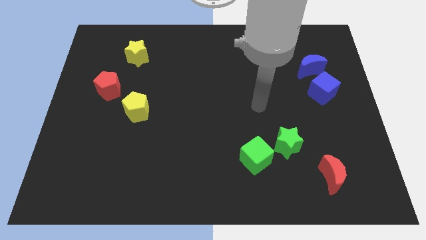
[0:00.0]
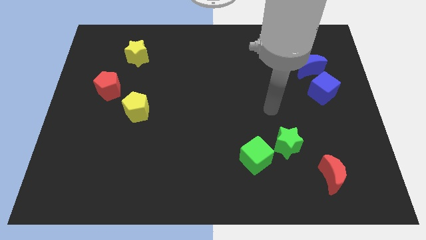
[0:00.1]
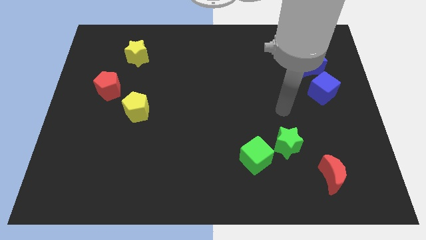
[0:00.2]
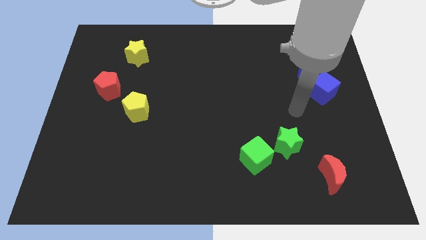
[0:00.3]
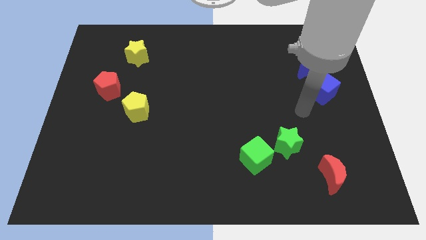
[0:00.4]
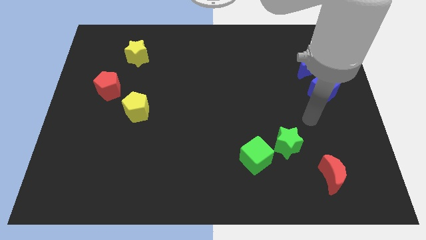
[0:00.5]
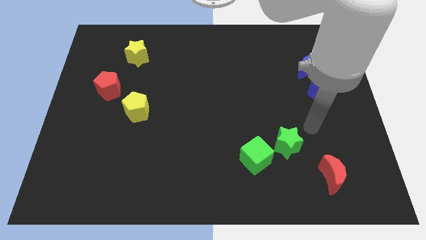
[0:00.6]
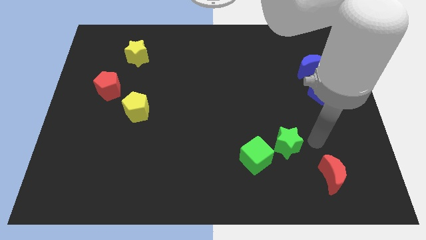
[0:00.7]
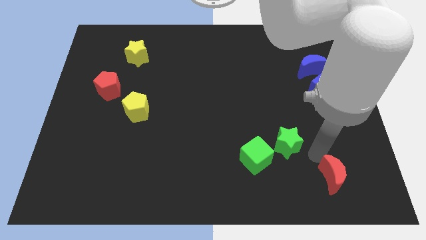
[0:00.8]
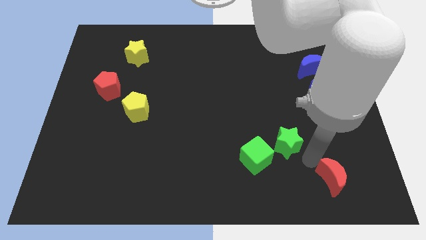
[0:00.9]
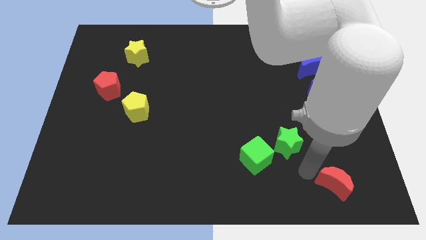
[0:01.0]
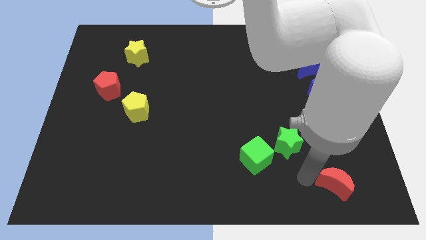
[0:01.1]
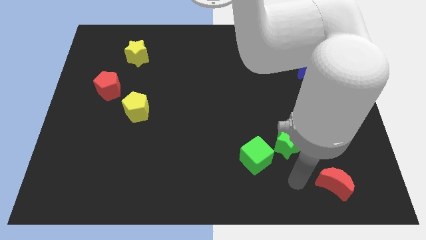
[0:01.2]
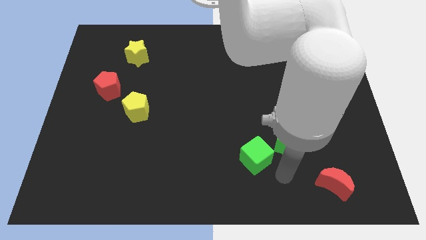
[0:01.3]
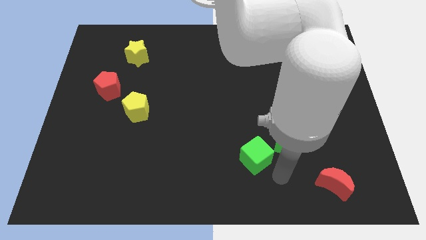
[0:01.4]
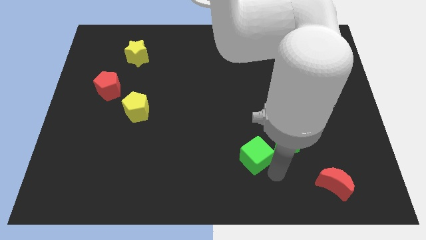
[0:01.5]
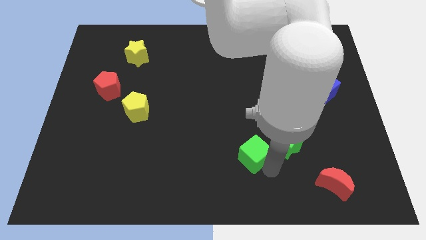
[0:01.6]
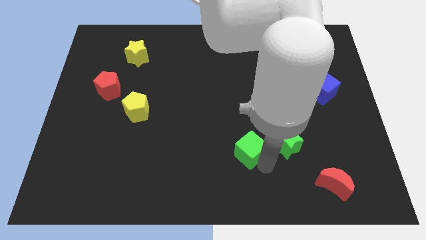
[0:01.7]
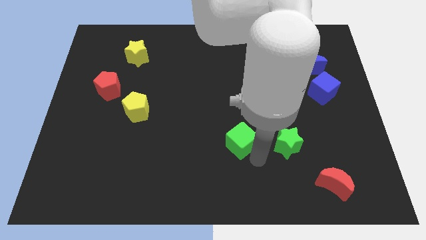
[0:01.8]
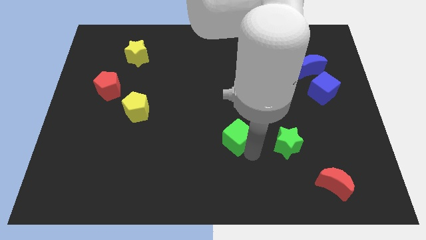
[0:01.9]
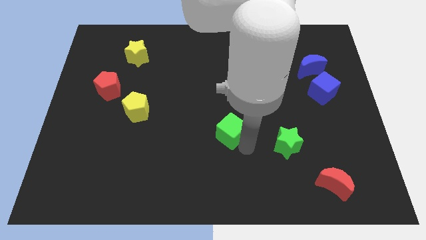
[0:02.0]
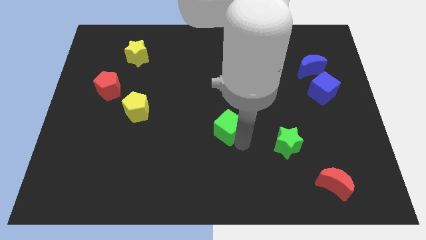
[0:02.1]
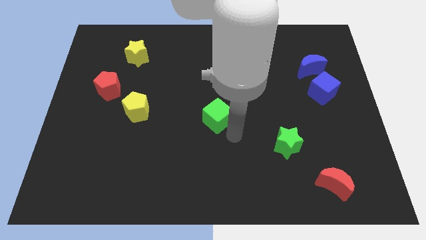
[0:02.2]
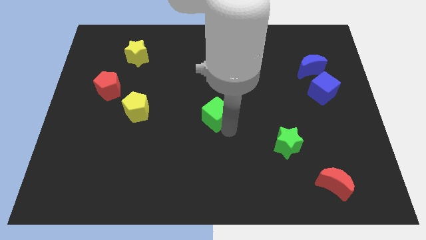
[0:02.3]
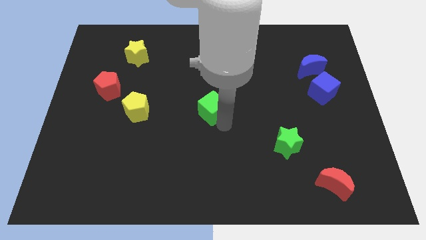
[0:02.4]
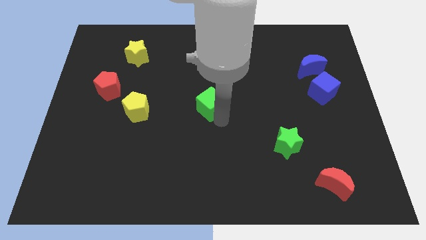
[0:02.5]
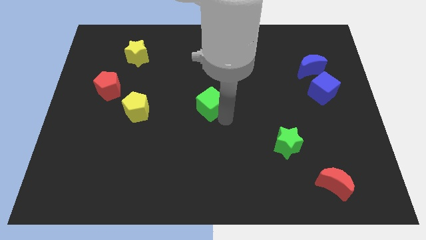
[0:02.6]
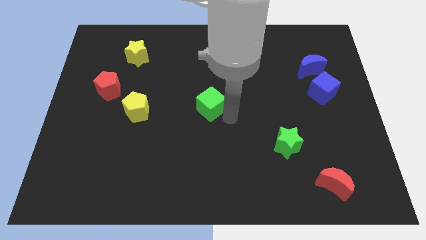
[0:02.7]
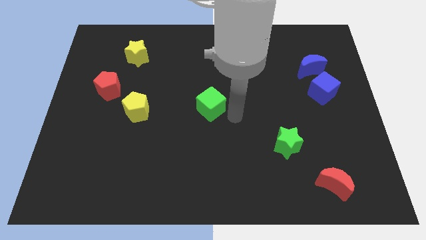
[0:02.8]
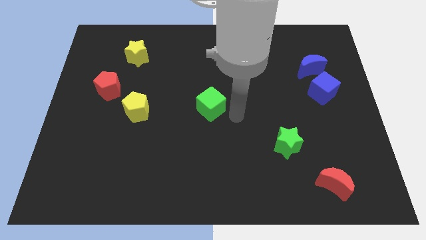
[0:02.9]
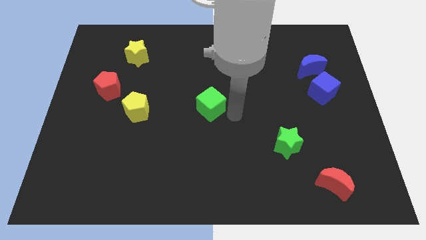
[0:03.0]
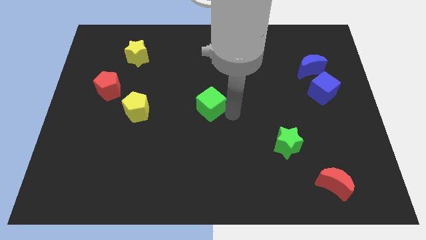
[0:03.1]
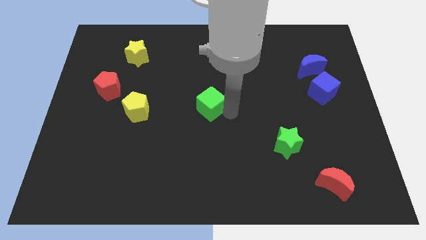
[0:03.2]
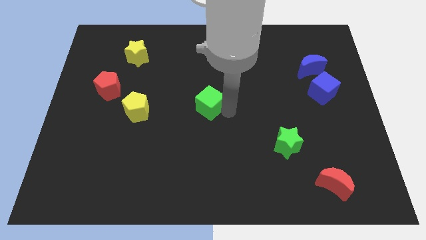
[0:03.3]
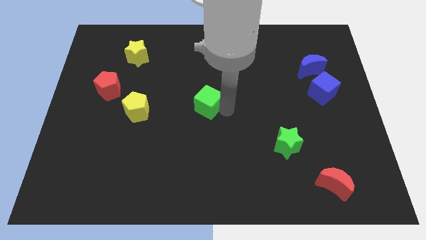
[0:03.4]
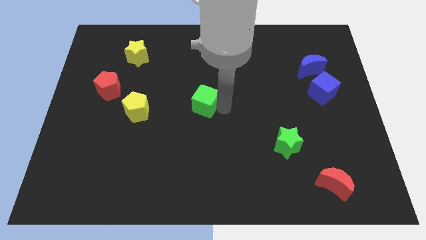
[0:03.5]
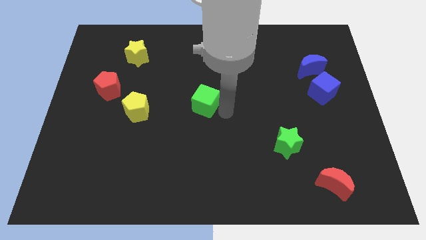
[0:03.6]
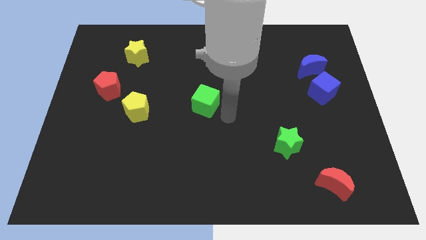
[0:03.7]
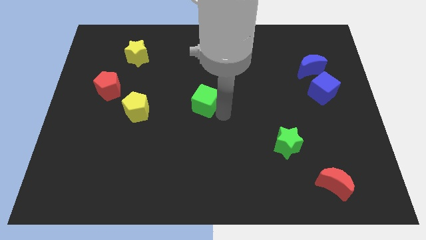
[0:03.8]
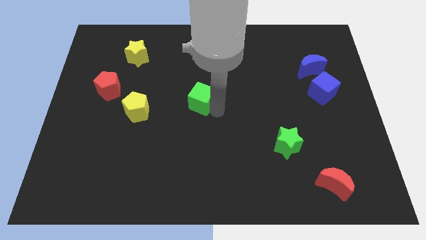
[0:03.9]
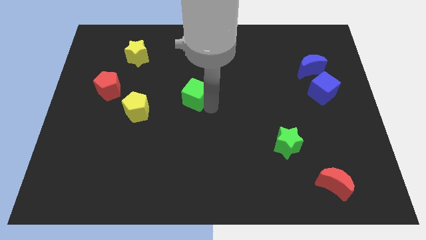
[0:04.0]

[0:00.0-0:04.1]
push the green cube upwards and to the left

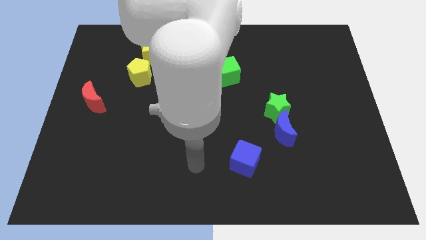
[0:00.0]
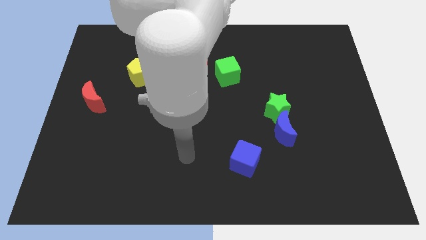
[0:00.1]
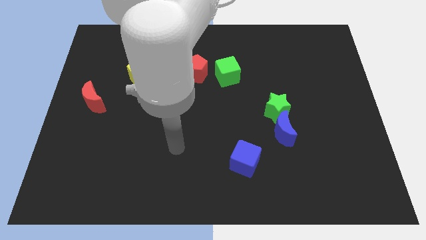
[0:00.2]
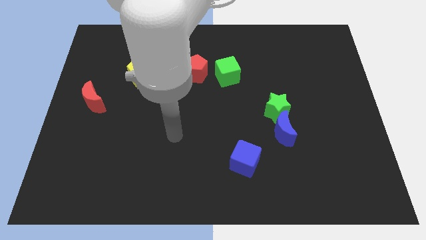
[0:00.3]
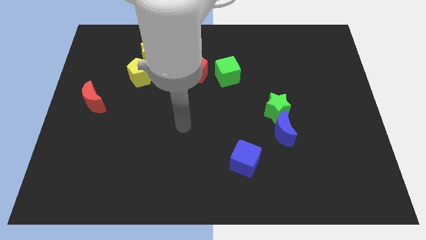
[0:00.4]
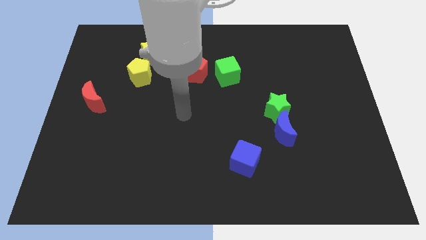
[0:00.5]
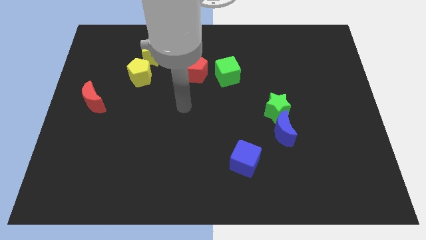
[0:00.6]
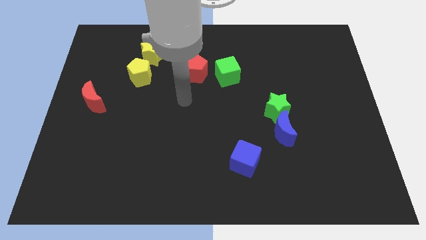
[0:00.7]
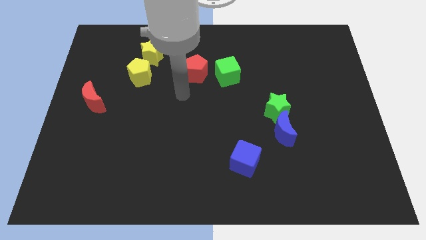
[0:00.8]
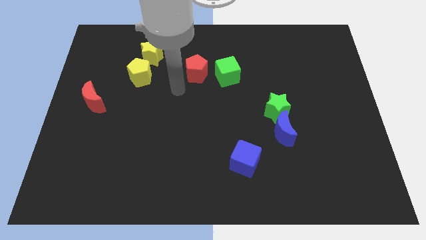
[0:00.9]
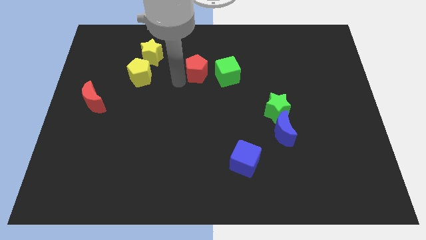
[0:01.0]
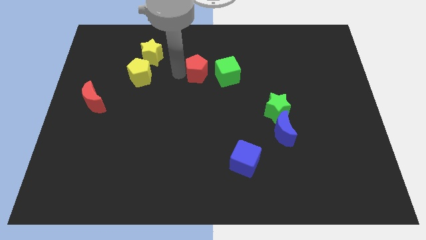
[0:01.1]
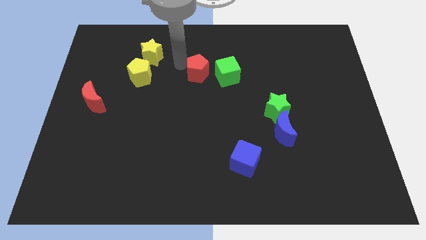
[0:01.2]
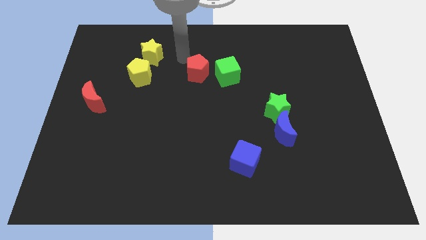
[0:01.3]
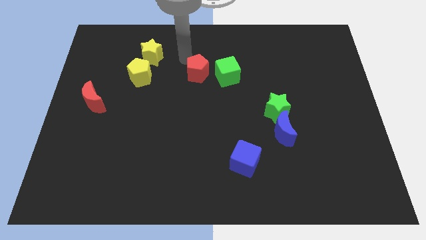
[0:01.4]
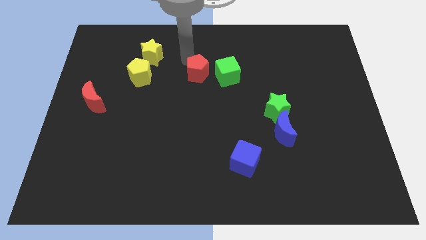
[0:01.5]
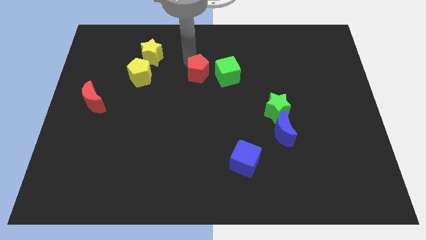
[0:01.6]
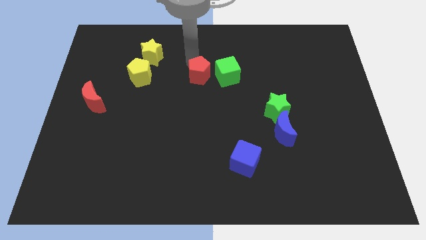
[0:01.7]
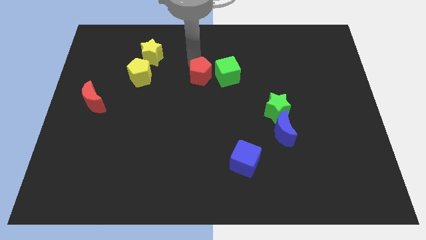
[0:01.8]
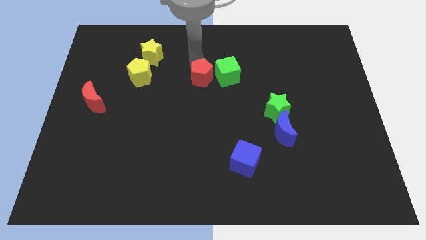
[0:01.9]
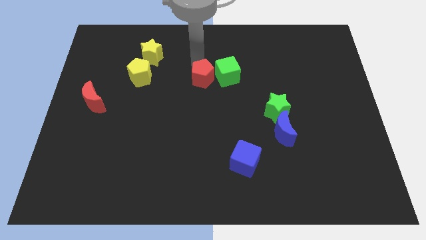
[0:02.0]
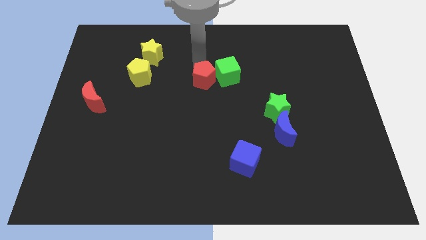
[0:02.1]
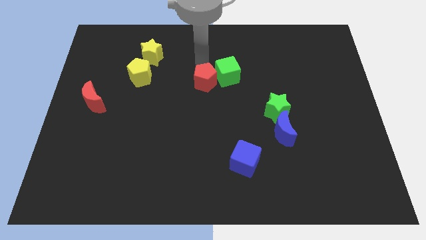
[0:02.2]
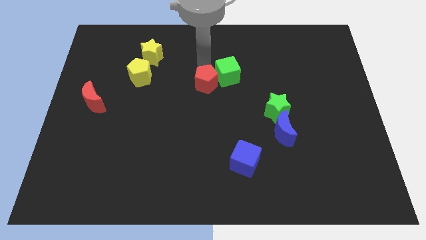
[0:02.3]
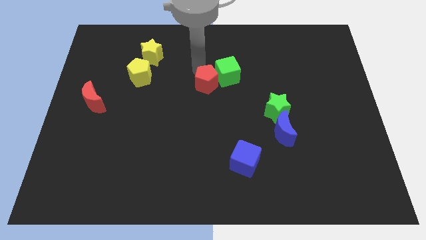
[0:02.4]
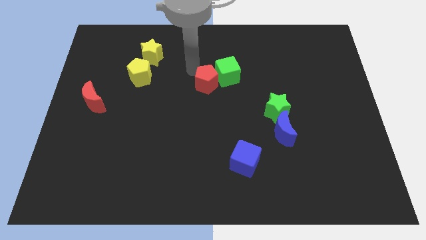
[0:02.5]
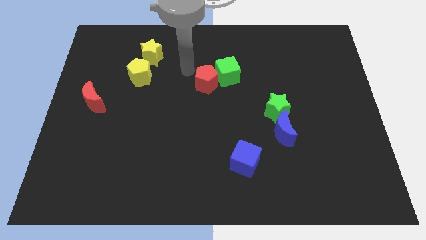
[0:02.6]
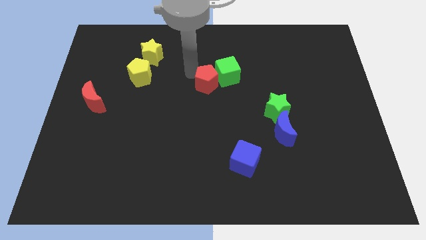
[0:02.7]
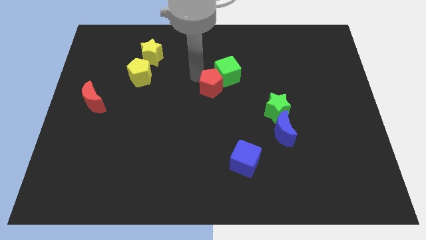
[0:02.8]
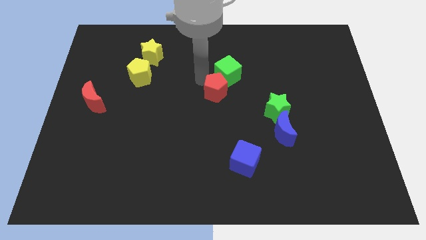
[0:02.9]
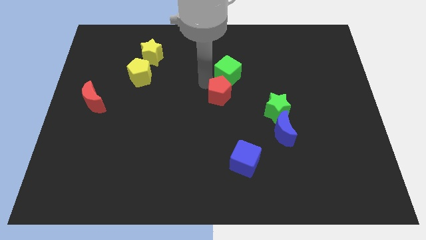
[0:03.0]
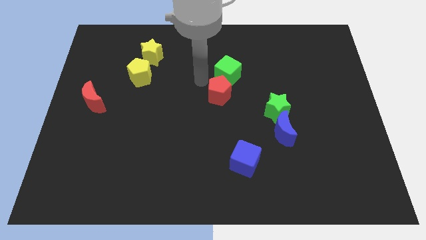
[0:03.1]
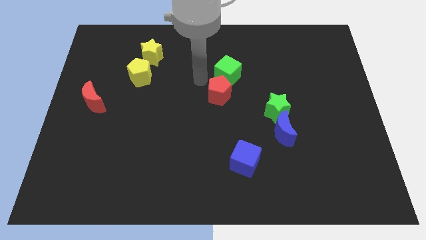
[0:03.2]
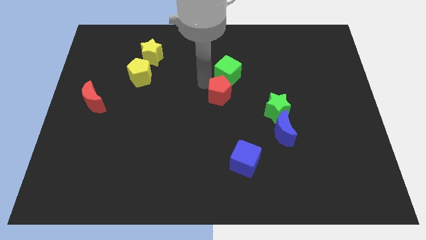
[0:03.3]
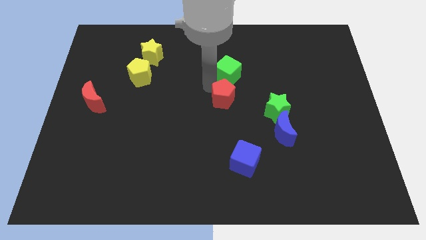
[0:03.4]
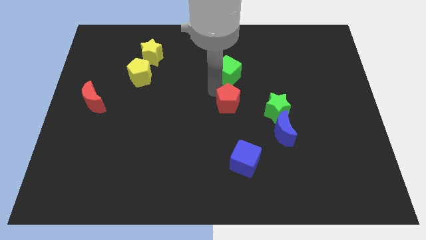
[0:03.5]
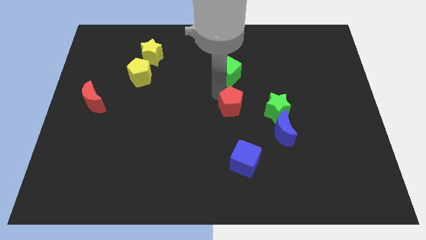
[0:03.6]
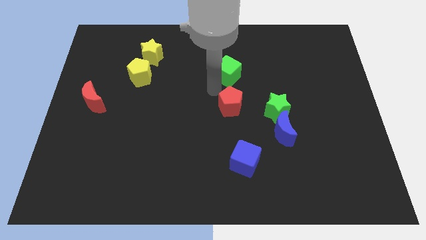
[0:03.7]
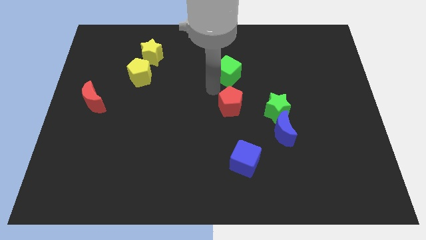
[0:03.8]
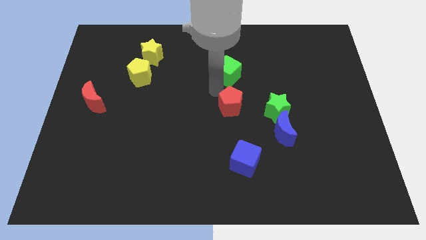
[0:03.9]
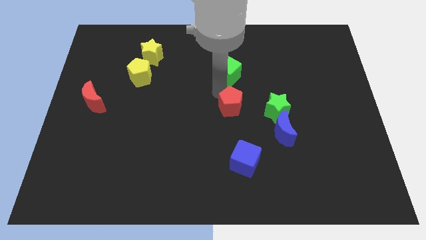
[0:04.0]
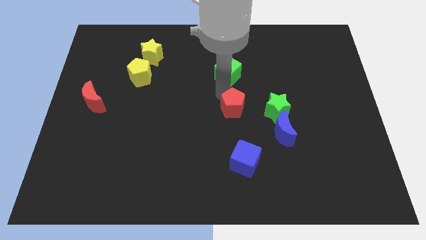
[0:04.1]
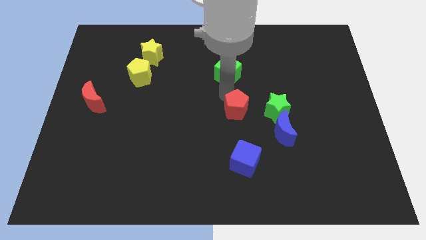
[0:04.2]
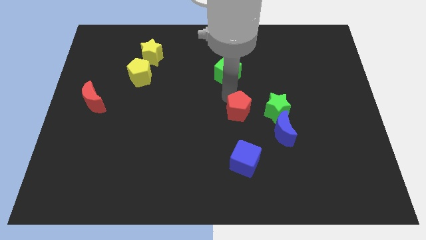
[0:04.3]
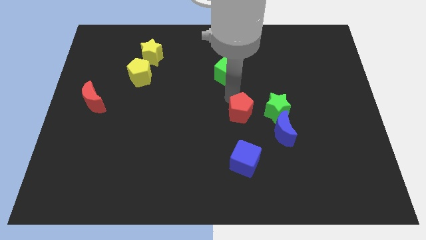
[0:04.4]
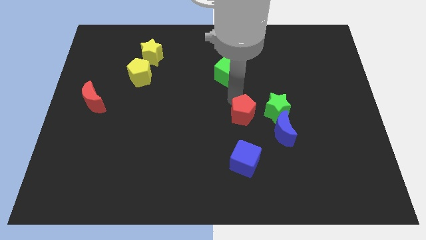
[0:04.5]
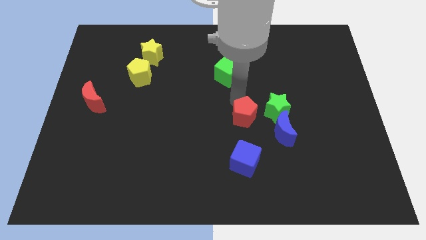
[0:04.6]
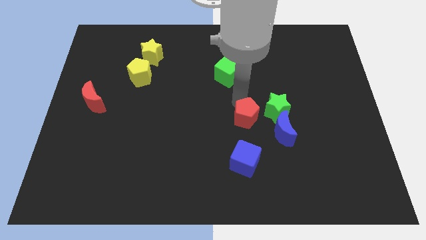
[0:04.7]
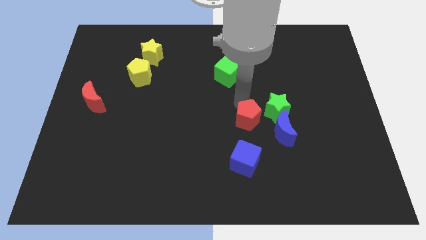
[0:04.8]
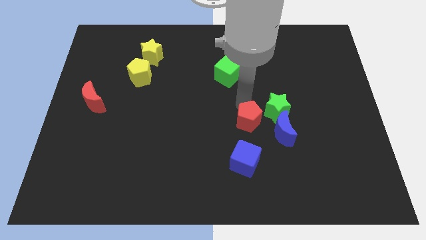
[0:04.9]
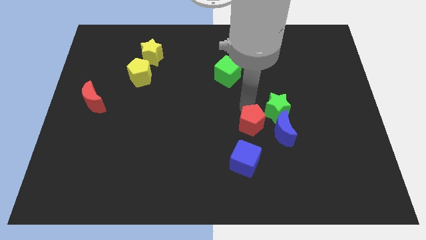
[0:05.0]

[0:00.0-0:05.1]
slide the red pentagon down and right
